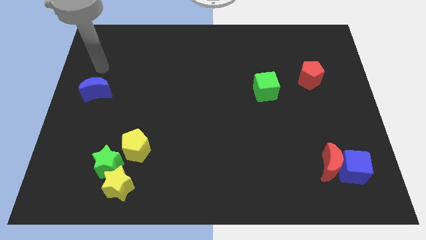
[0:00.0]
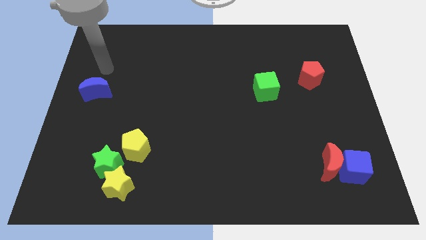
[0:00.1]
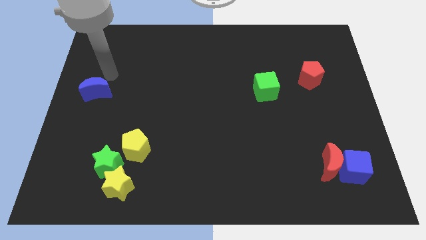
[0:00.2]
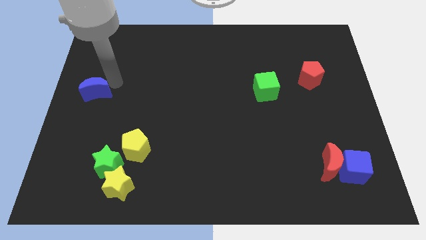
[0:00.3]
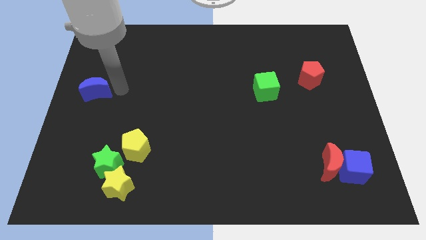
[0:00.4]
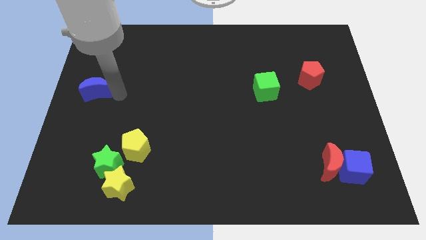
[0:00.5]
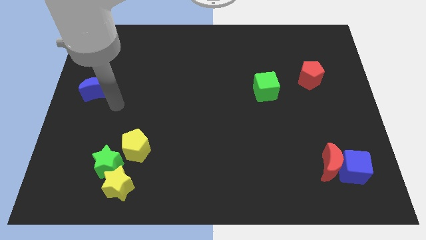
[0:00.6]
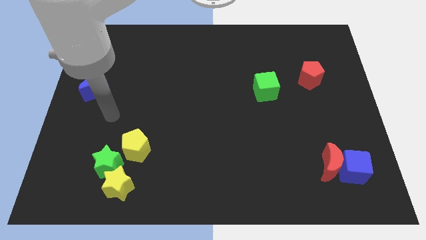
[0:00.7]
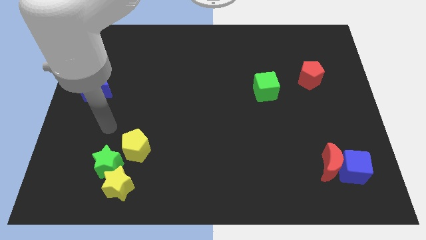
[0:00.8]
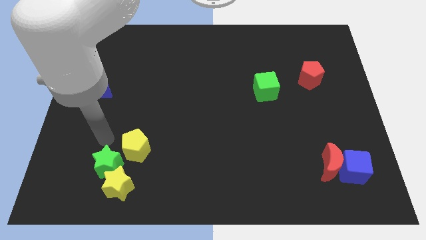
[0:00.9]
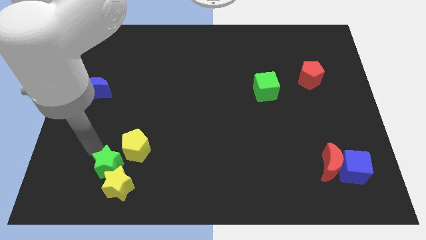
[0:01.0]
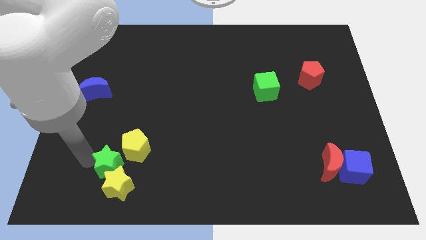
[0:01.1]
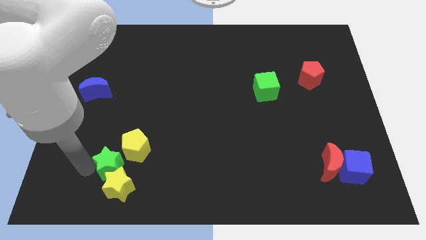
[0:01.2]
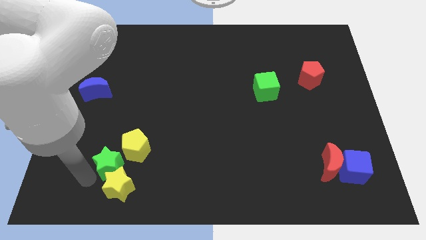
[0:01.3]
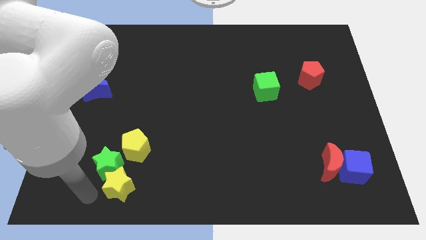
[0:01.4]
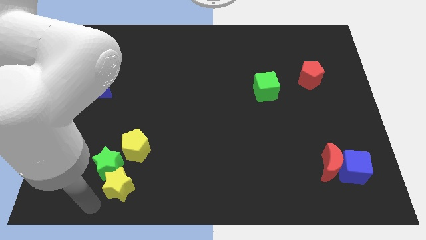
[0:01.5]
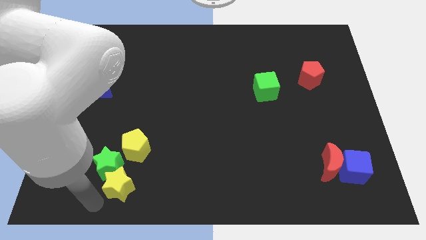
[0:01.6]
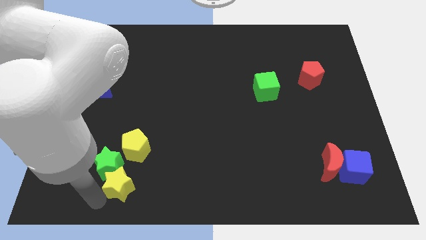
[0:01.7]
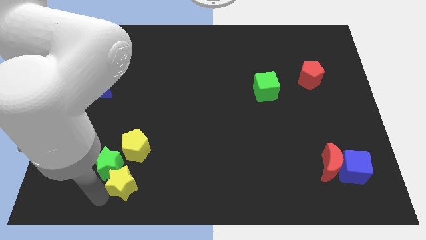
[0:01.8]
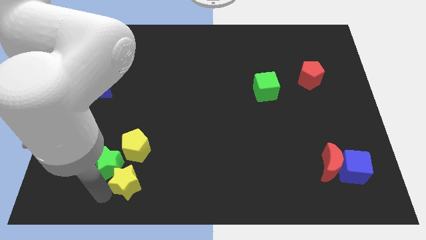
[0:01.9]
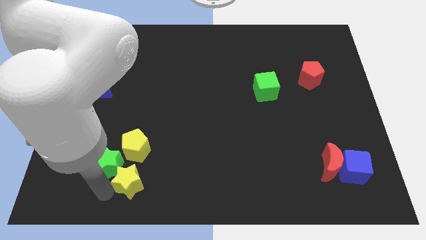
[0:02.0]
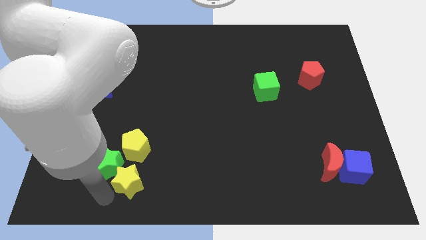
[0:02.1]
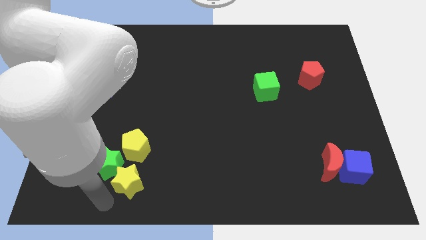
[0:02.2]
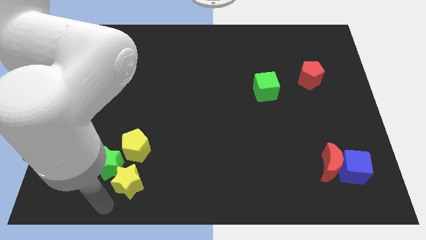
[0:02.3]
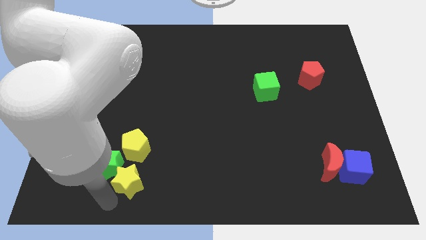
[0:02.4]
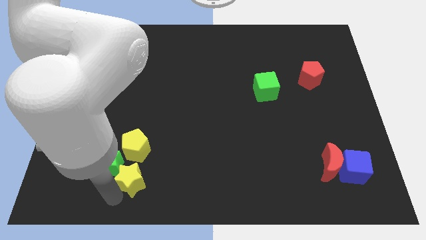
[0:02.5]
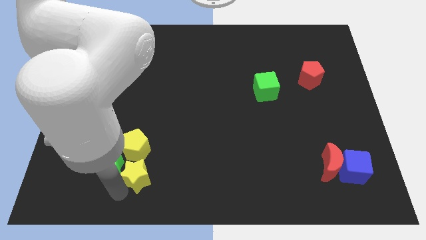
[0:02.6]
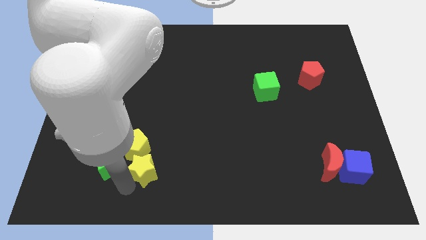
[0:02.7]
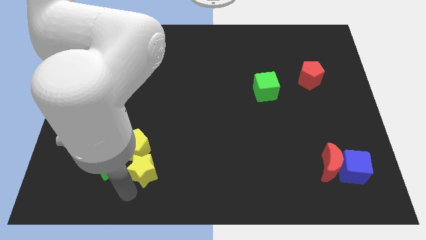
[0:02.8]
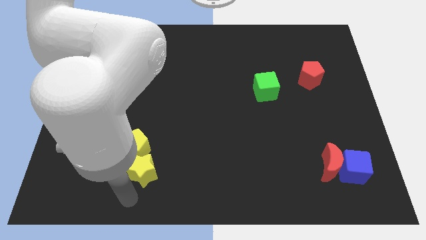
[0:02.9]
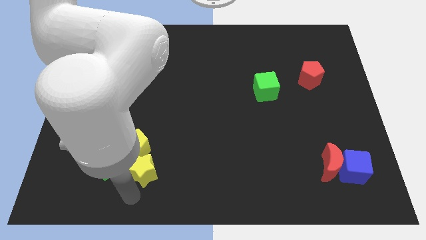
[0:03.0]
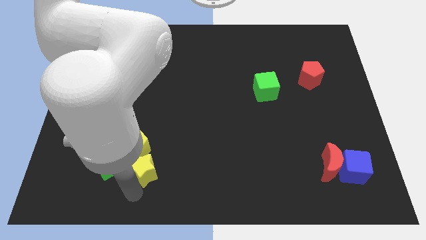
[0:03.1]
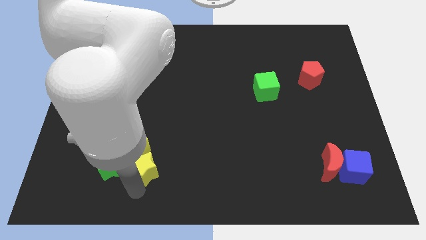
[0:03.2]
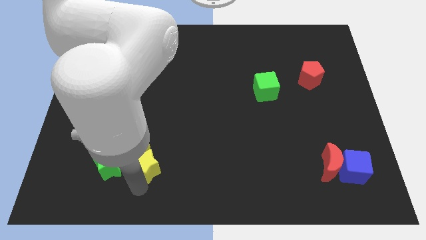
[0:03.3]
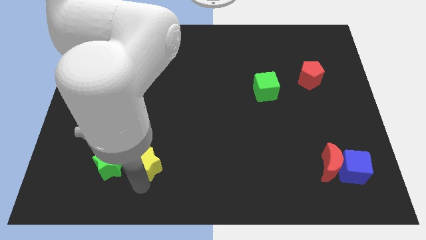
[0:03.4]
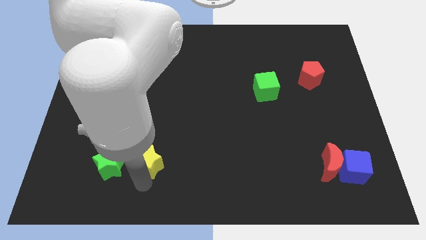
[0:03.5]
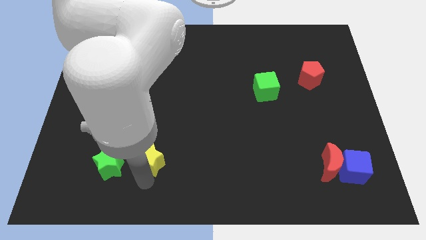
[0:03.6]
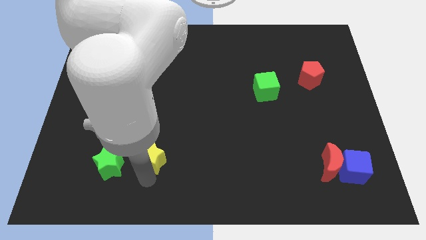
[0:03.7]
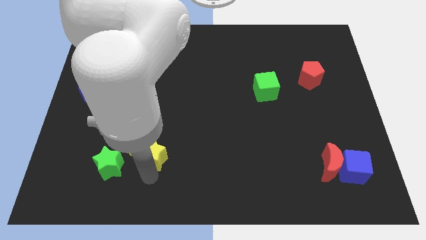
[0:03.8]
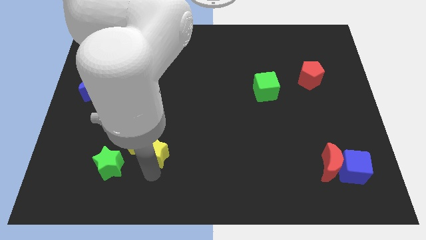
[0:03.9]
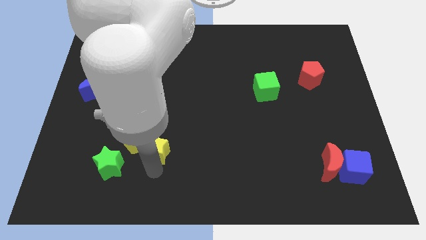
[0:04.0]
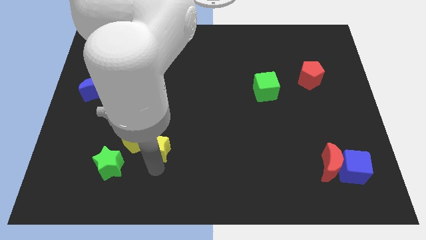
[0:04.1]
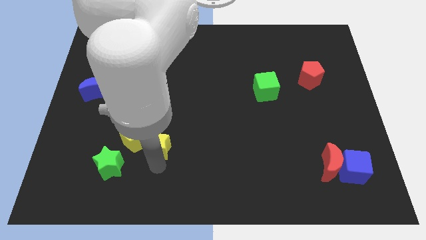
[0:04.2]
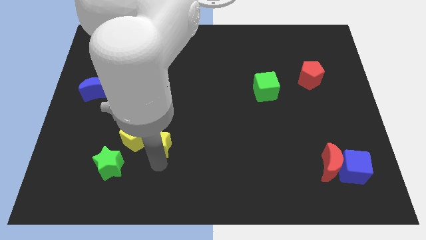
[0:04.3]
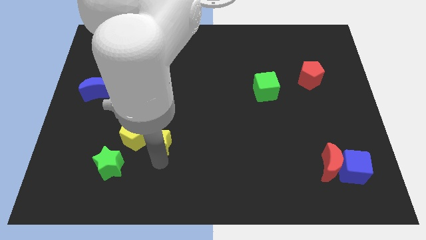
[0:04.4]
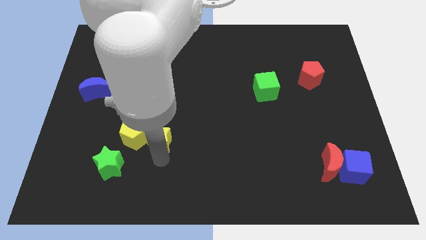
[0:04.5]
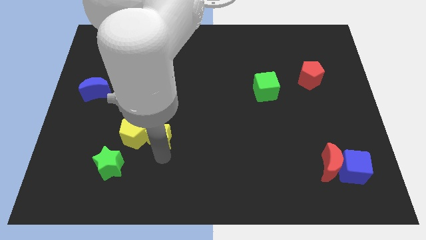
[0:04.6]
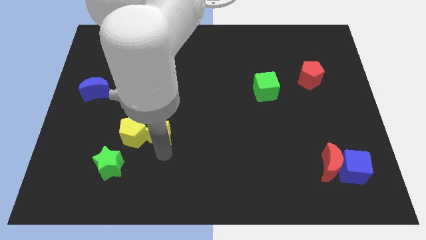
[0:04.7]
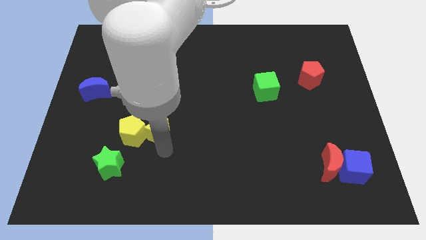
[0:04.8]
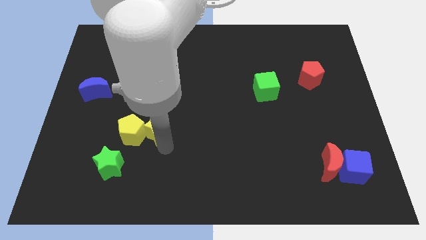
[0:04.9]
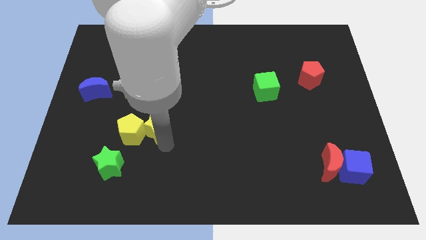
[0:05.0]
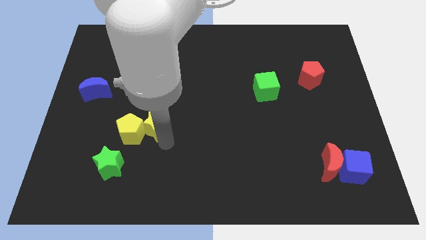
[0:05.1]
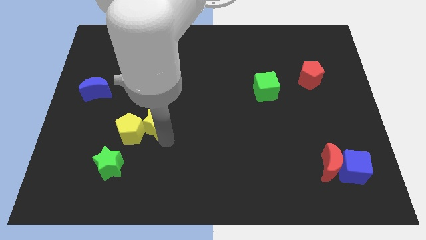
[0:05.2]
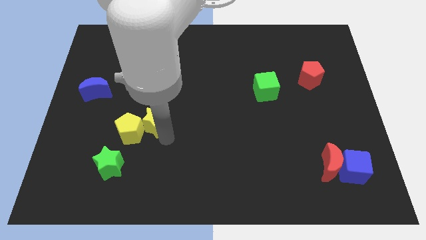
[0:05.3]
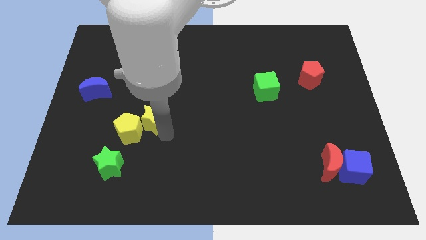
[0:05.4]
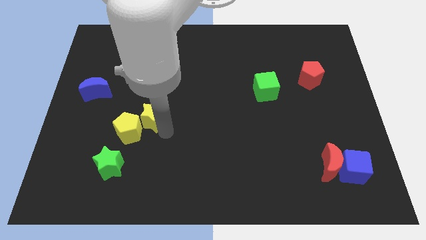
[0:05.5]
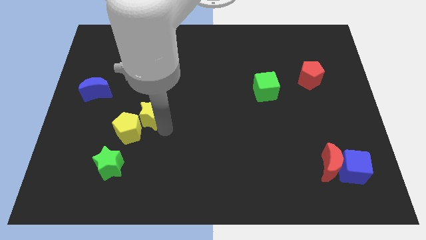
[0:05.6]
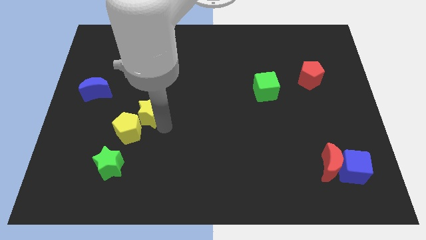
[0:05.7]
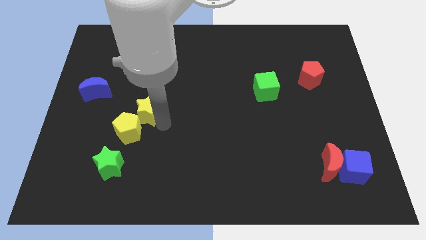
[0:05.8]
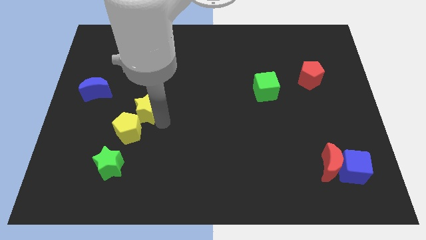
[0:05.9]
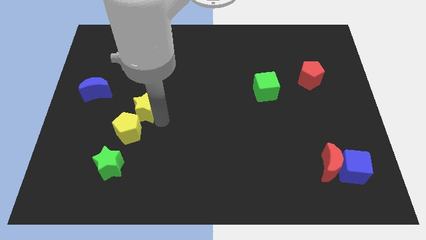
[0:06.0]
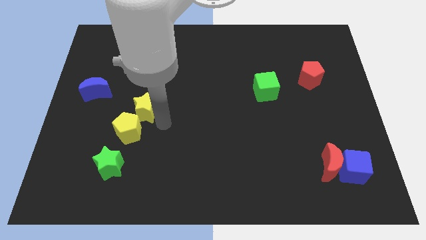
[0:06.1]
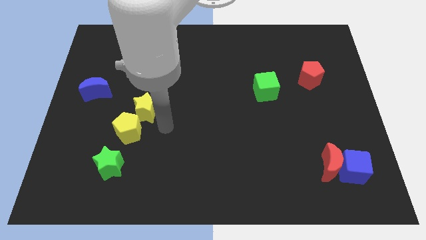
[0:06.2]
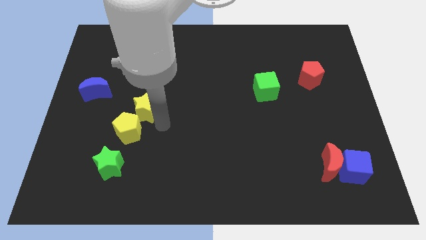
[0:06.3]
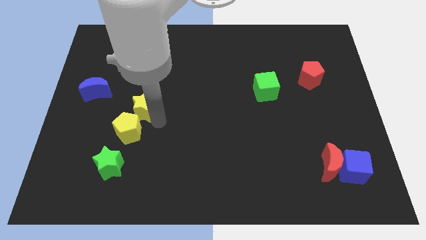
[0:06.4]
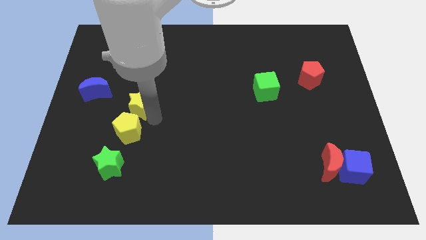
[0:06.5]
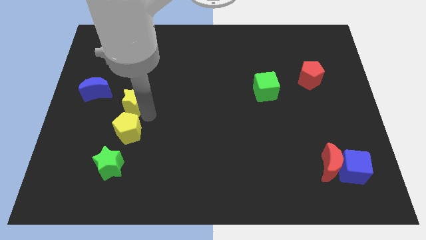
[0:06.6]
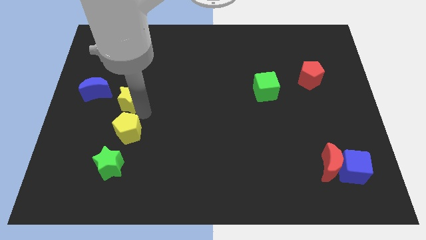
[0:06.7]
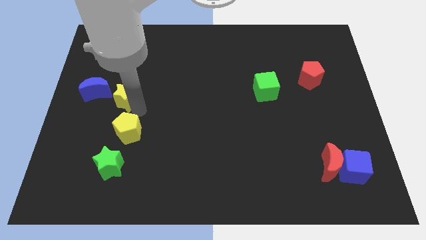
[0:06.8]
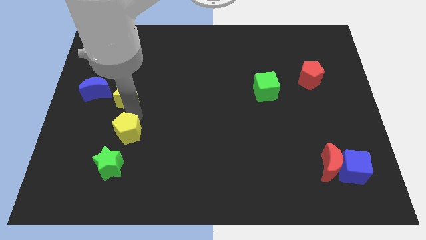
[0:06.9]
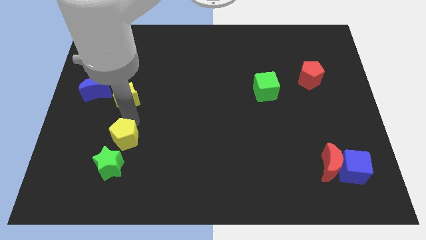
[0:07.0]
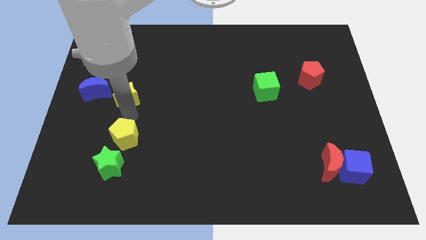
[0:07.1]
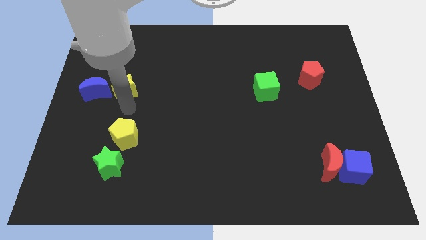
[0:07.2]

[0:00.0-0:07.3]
push the yellow star to the top right of the blue moon

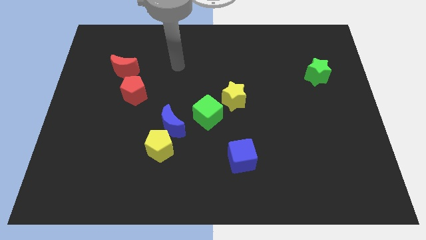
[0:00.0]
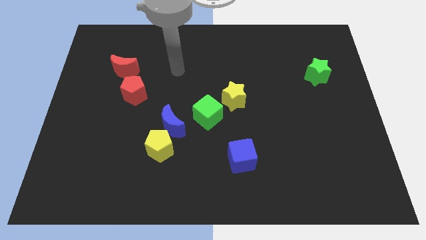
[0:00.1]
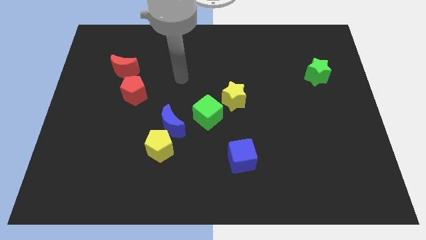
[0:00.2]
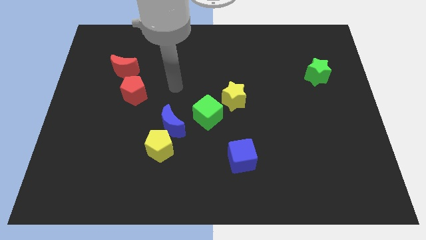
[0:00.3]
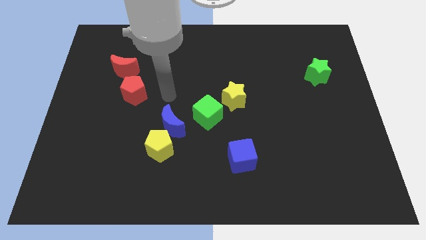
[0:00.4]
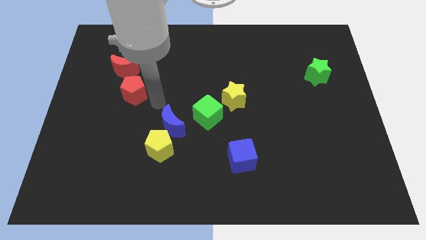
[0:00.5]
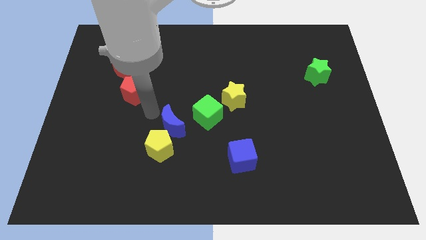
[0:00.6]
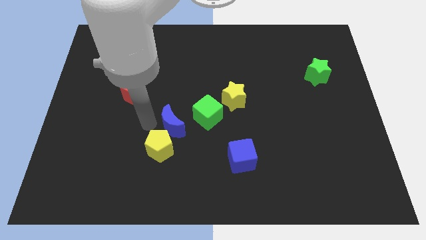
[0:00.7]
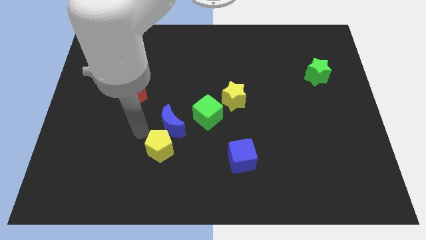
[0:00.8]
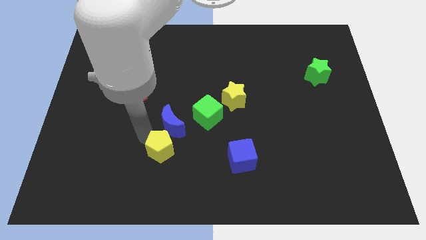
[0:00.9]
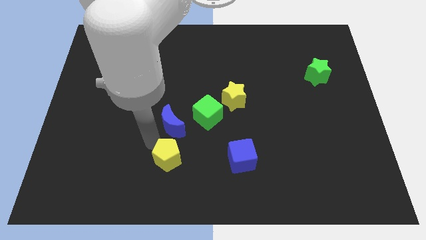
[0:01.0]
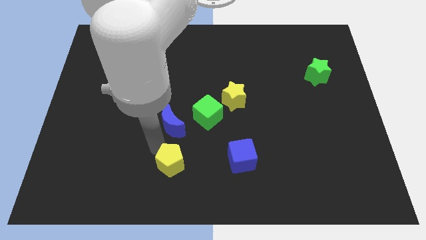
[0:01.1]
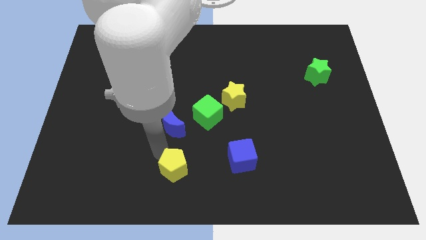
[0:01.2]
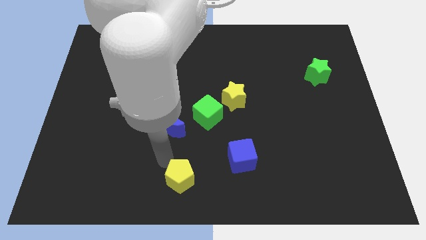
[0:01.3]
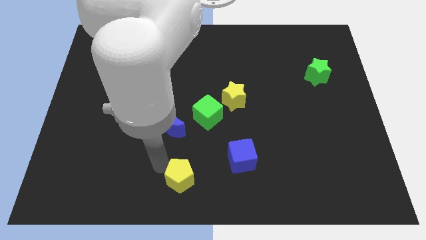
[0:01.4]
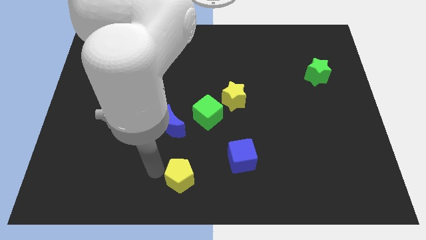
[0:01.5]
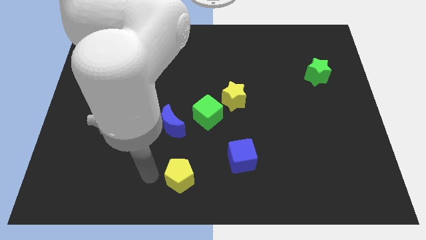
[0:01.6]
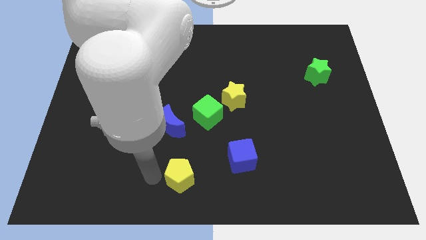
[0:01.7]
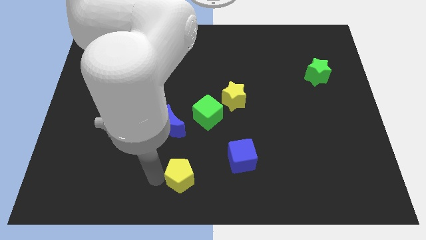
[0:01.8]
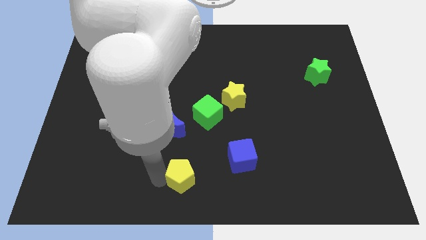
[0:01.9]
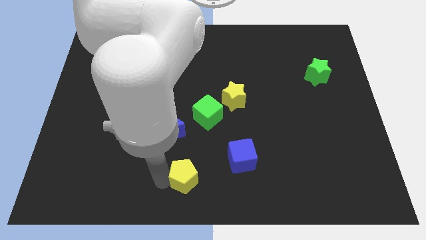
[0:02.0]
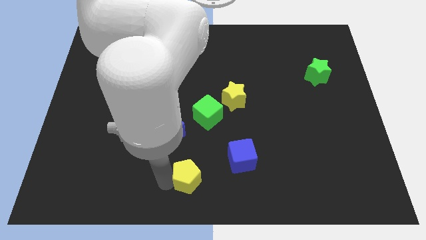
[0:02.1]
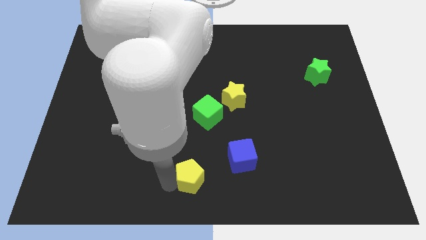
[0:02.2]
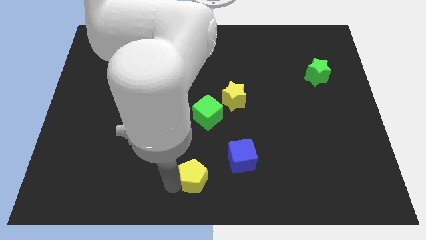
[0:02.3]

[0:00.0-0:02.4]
put the yellow pentagon to the bottom left side of the blue cube
